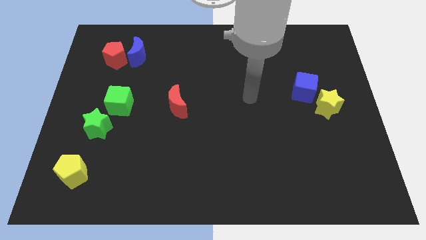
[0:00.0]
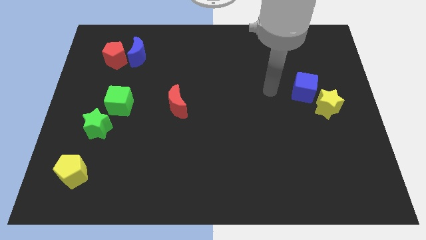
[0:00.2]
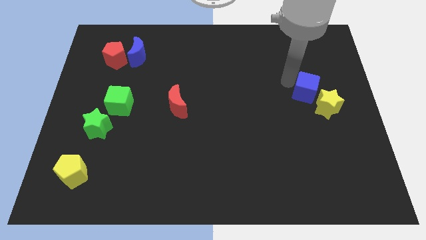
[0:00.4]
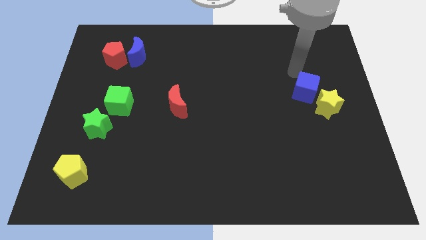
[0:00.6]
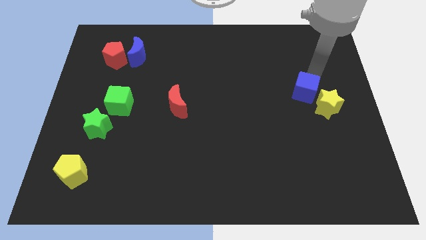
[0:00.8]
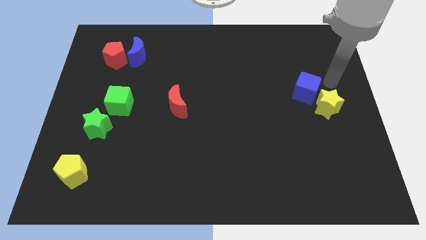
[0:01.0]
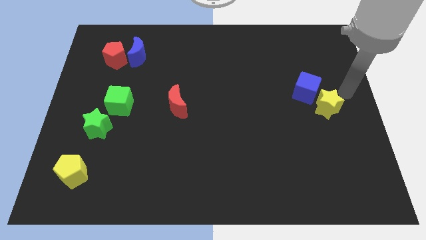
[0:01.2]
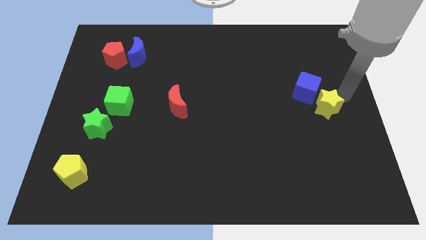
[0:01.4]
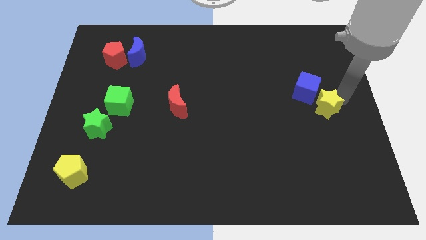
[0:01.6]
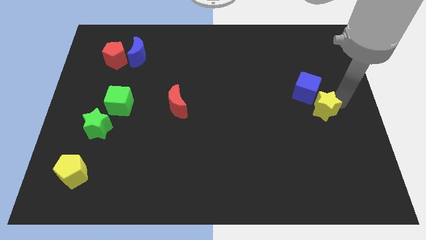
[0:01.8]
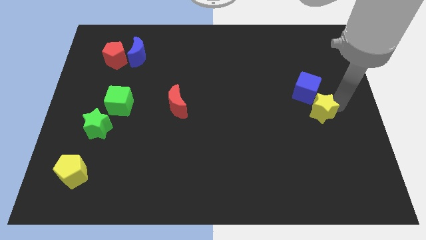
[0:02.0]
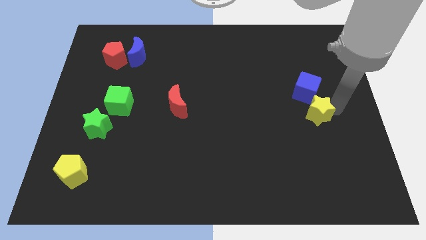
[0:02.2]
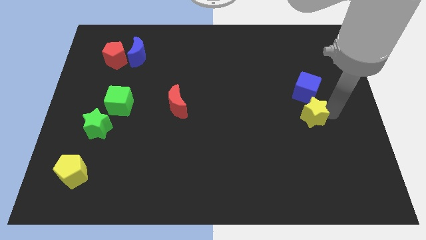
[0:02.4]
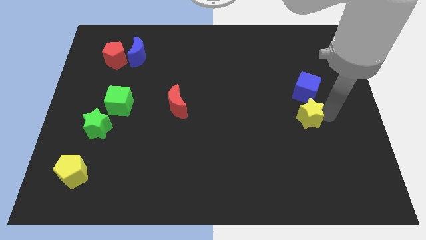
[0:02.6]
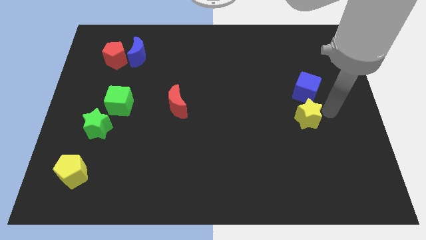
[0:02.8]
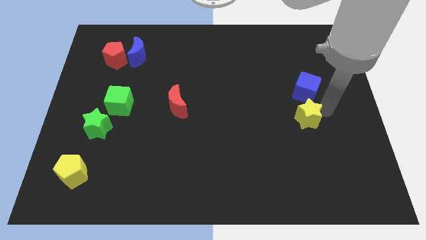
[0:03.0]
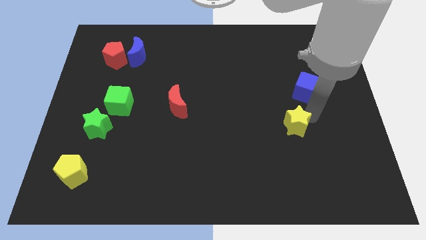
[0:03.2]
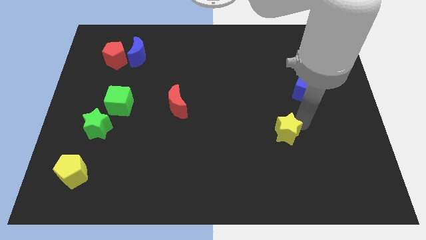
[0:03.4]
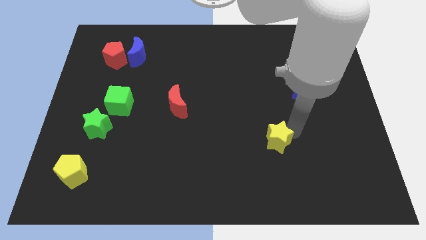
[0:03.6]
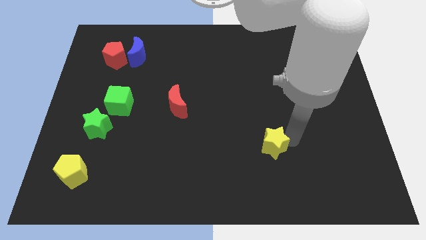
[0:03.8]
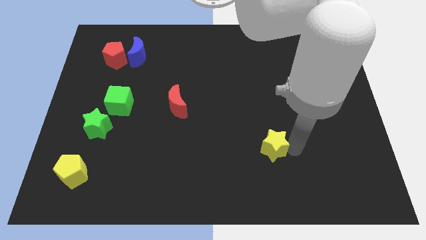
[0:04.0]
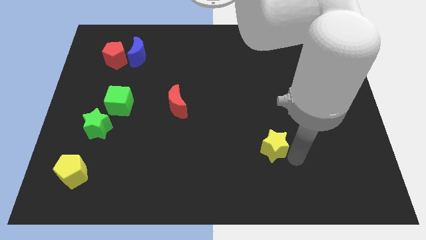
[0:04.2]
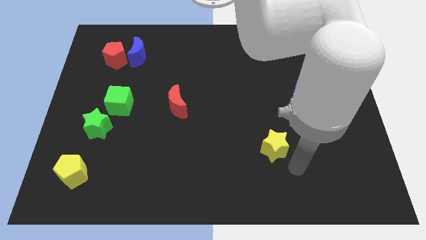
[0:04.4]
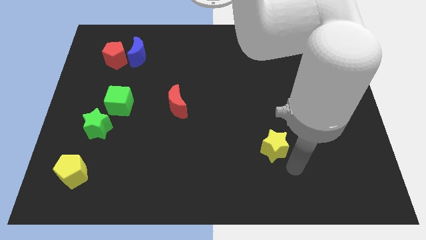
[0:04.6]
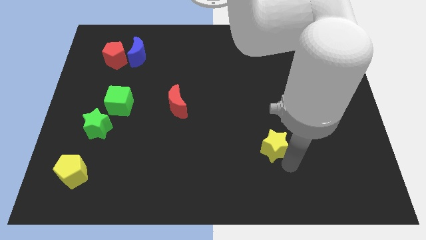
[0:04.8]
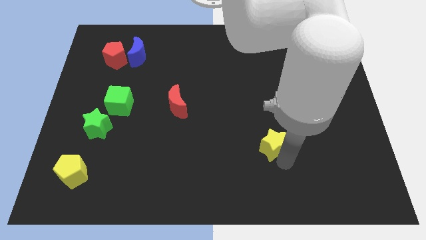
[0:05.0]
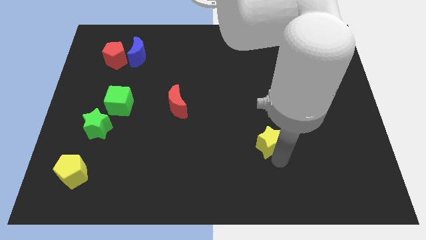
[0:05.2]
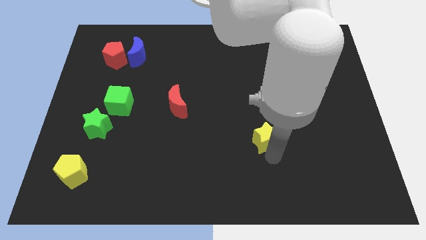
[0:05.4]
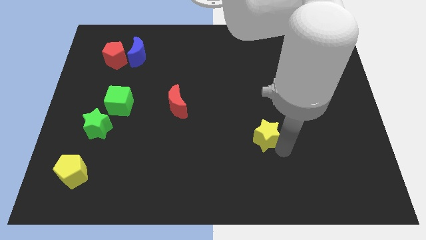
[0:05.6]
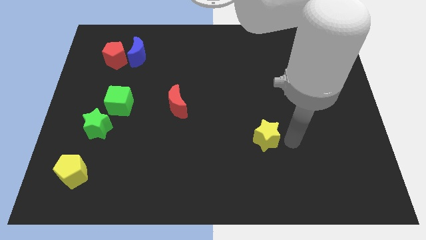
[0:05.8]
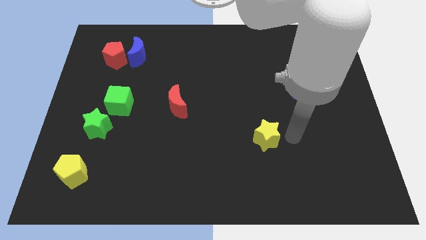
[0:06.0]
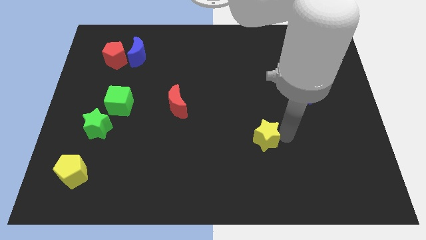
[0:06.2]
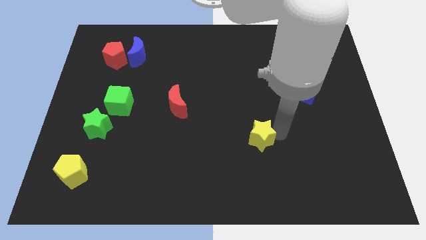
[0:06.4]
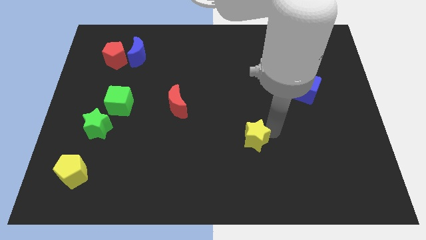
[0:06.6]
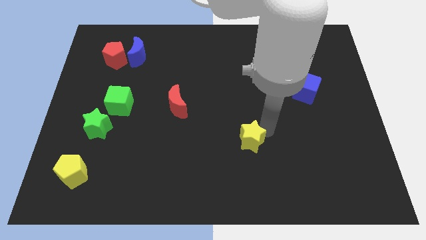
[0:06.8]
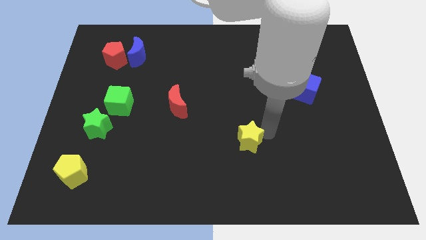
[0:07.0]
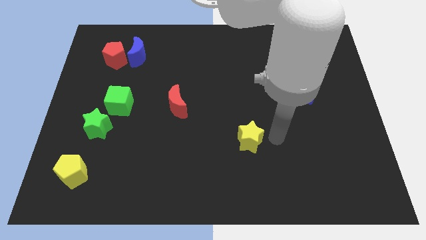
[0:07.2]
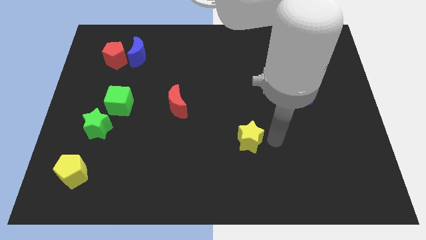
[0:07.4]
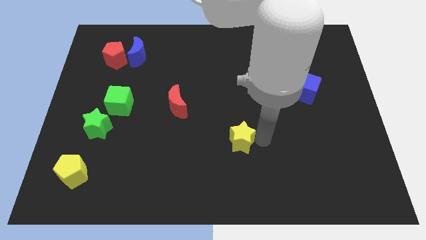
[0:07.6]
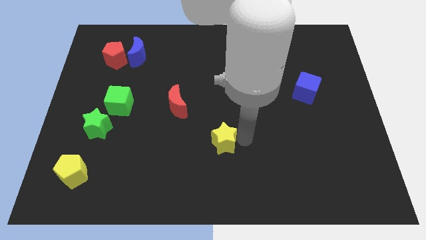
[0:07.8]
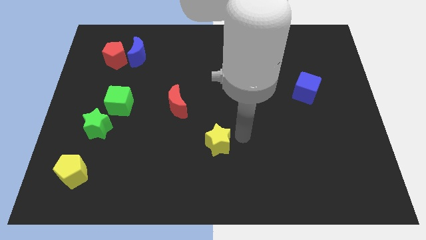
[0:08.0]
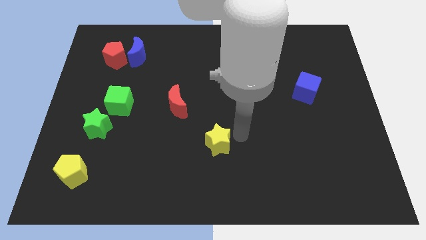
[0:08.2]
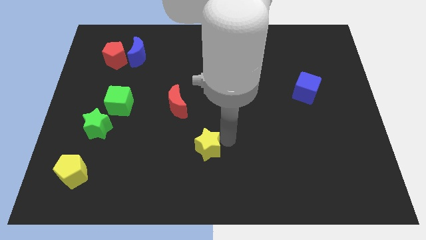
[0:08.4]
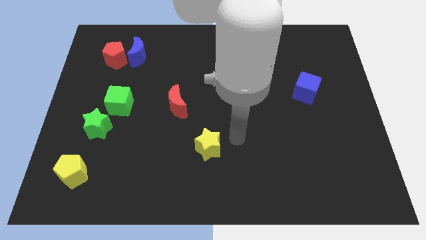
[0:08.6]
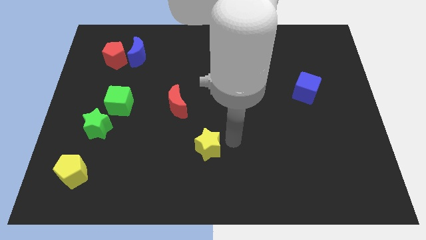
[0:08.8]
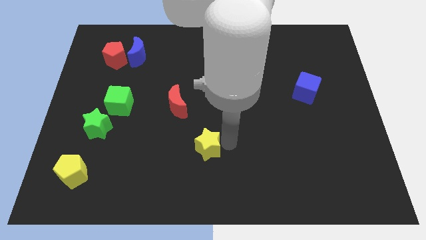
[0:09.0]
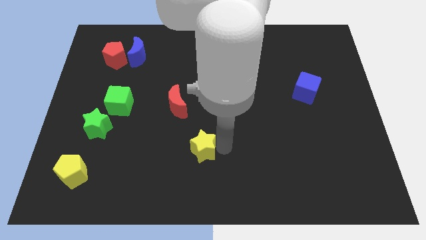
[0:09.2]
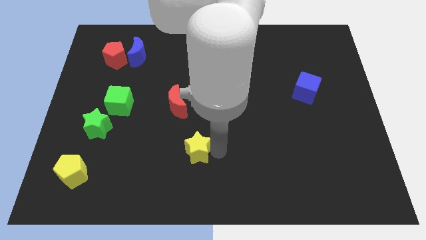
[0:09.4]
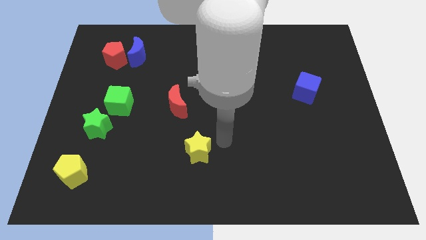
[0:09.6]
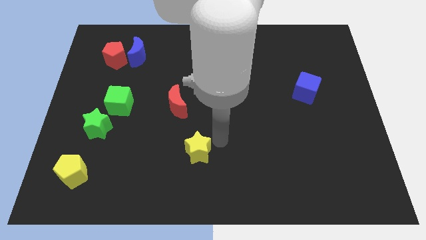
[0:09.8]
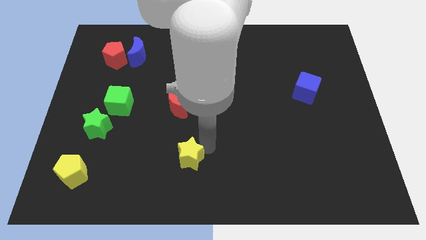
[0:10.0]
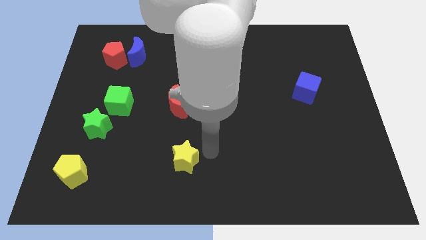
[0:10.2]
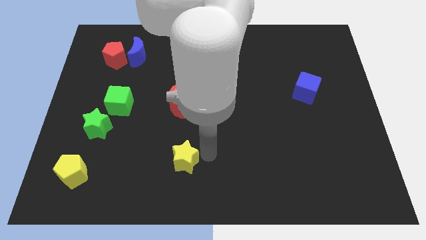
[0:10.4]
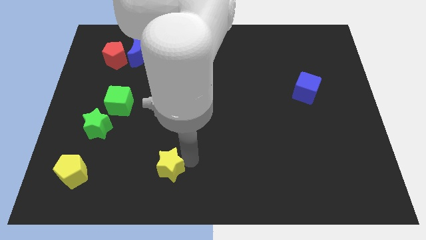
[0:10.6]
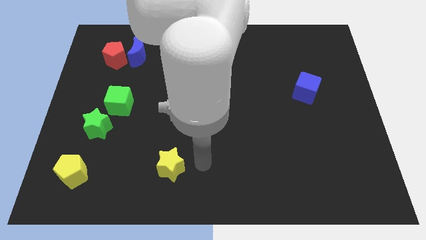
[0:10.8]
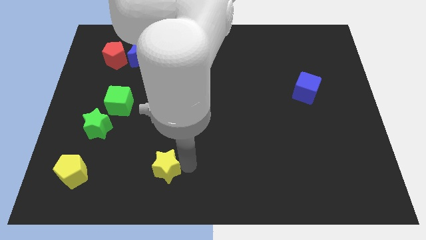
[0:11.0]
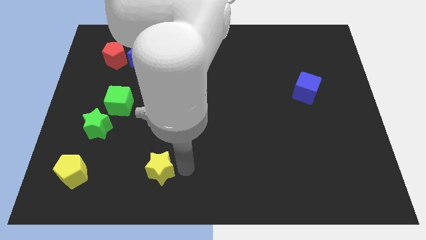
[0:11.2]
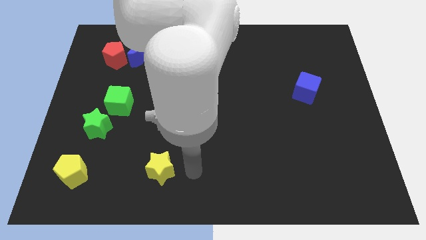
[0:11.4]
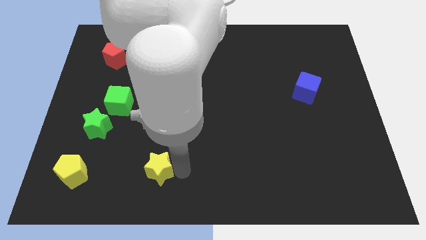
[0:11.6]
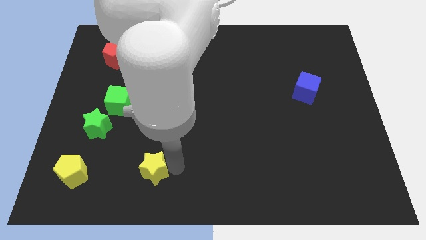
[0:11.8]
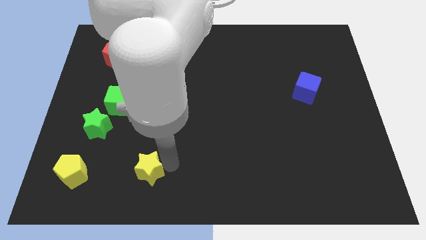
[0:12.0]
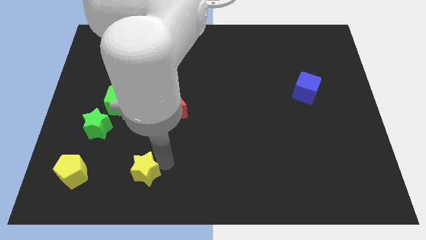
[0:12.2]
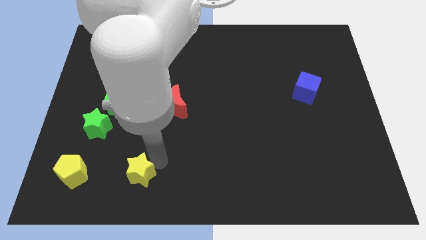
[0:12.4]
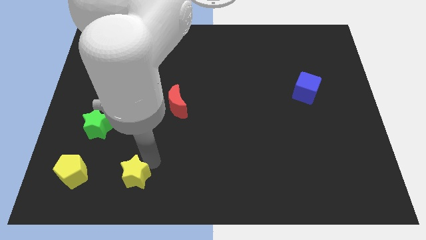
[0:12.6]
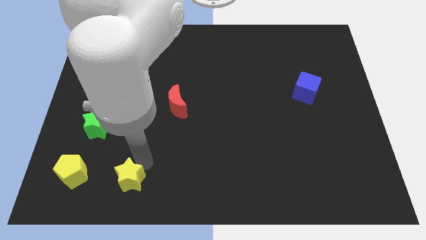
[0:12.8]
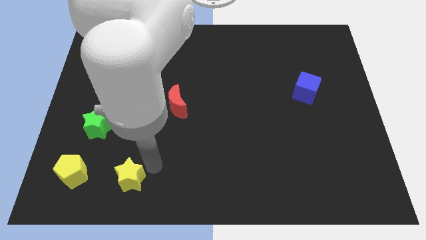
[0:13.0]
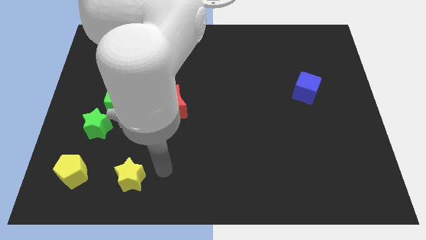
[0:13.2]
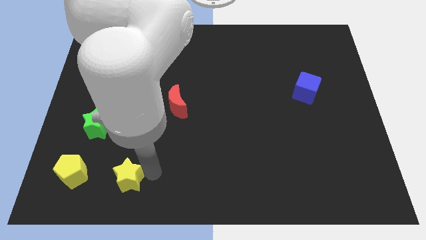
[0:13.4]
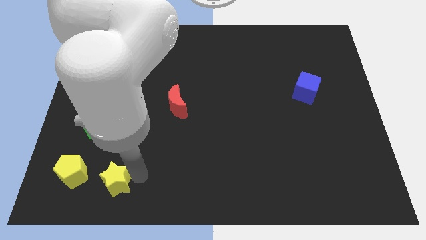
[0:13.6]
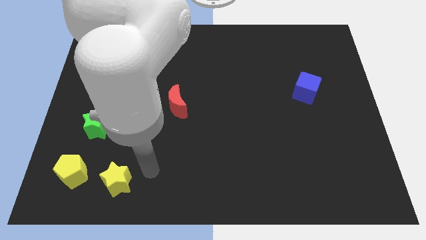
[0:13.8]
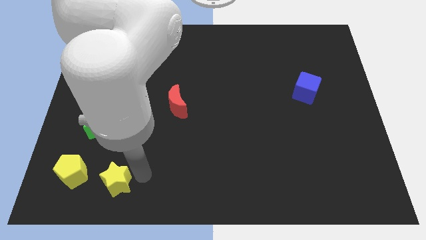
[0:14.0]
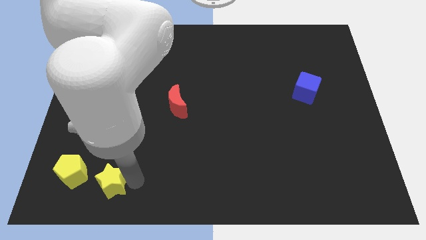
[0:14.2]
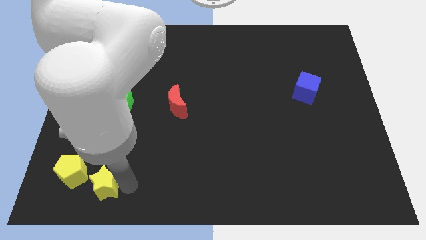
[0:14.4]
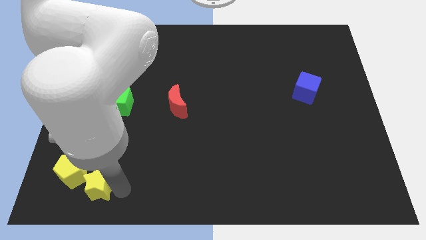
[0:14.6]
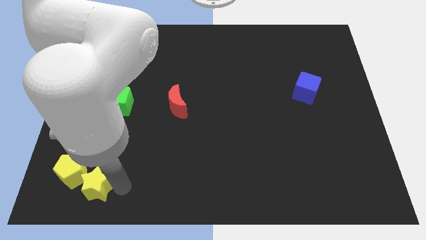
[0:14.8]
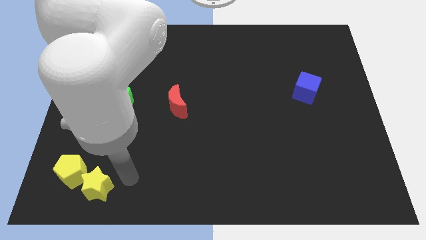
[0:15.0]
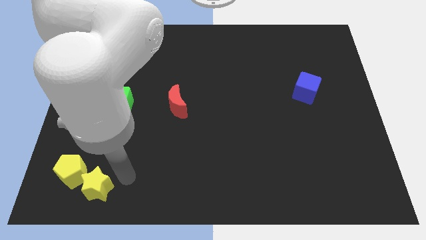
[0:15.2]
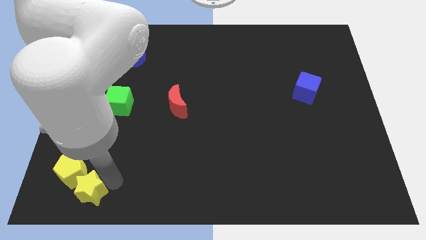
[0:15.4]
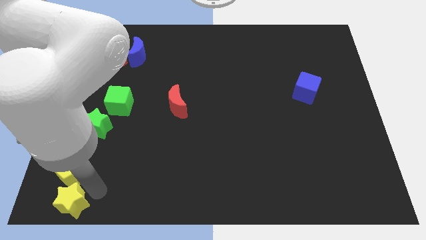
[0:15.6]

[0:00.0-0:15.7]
push the yellow star to the bottom left of the board

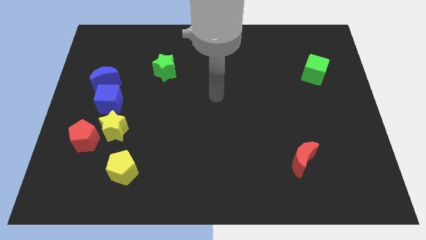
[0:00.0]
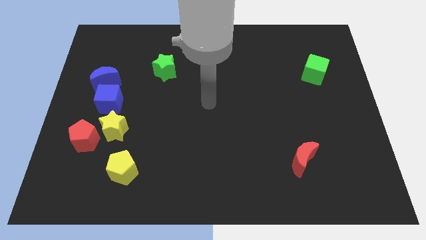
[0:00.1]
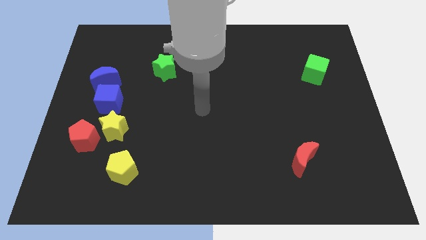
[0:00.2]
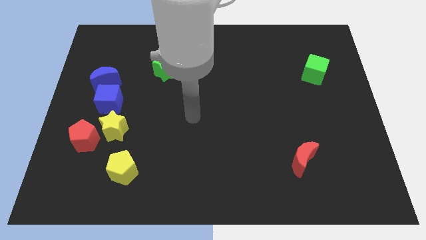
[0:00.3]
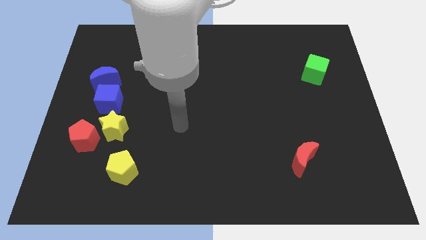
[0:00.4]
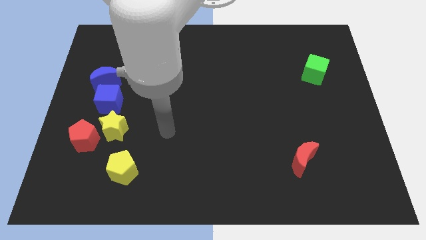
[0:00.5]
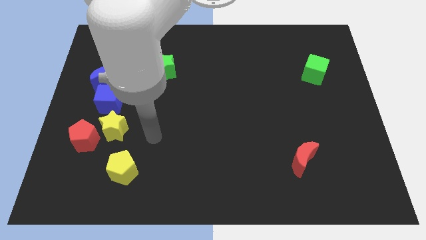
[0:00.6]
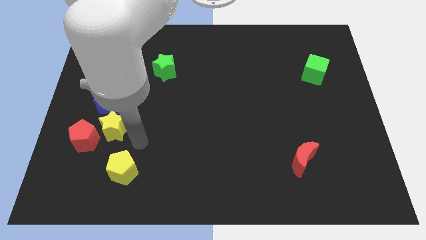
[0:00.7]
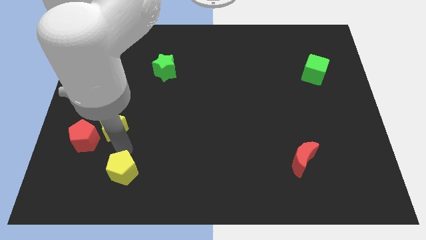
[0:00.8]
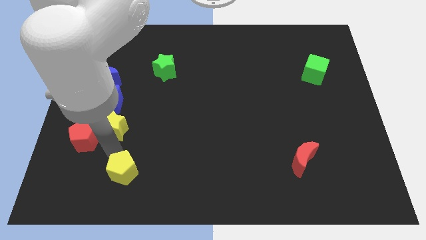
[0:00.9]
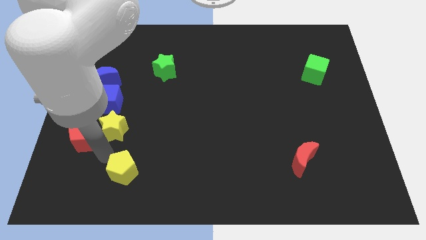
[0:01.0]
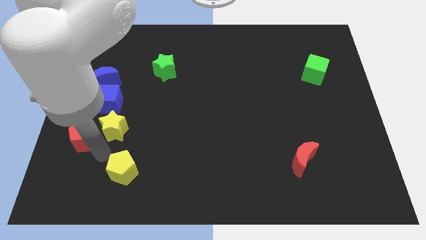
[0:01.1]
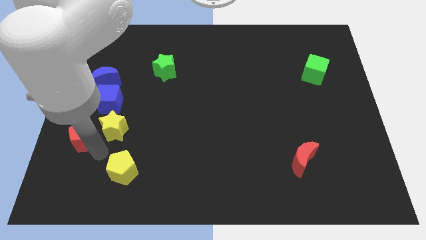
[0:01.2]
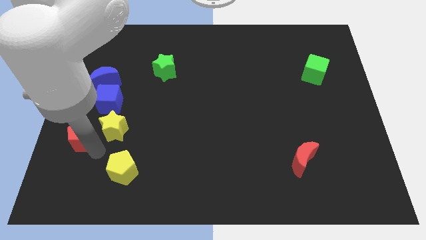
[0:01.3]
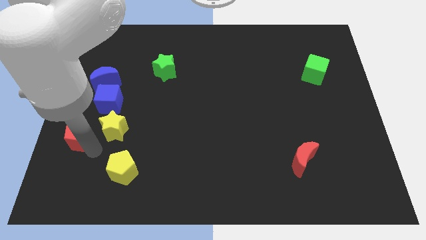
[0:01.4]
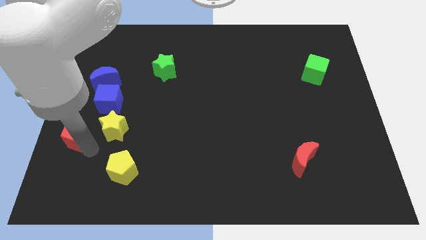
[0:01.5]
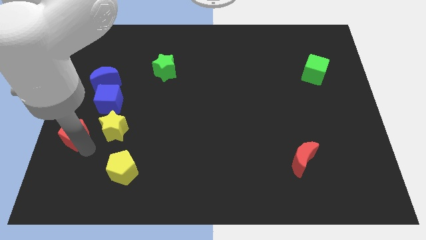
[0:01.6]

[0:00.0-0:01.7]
put the red pentagon to the left side of the board
